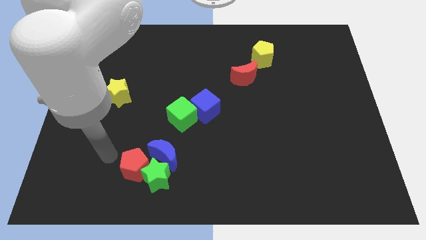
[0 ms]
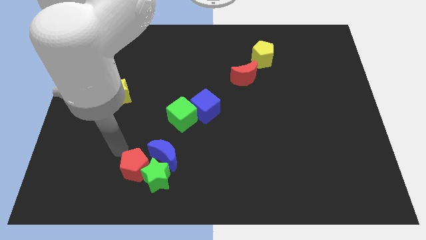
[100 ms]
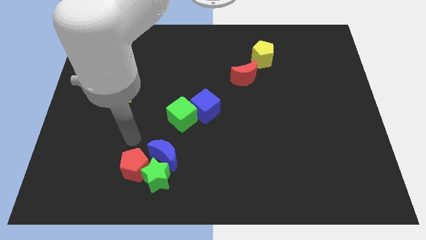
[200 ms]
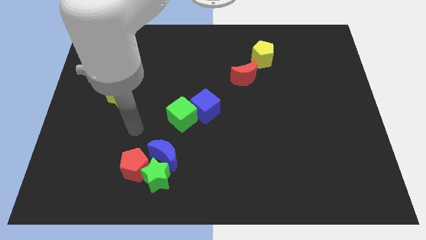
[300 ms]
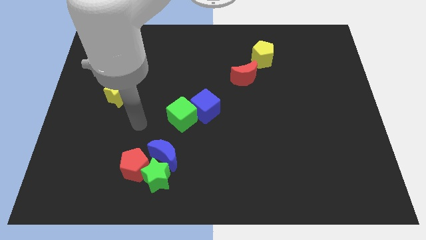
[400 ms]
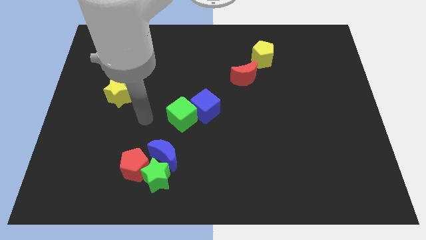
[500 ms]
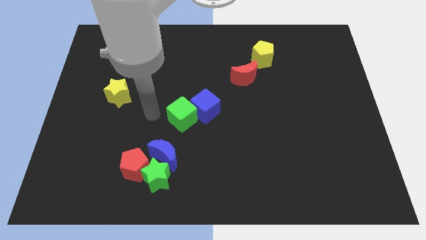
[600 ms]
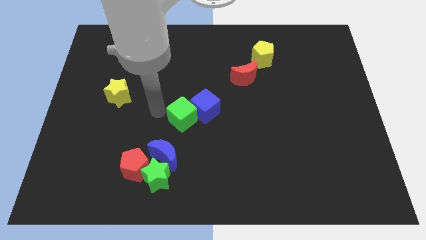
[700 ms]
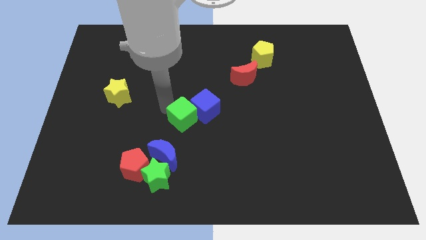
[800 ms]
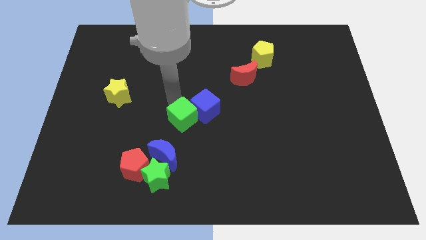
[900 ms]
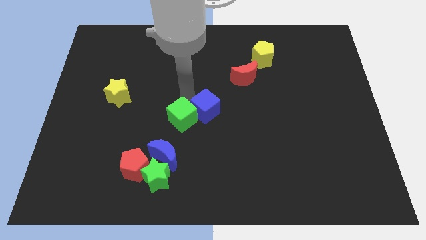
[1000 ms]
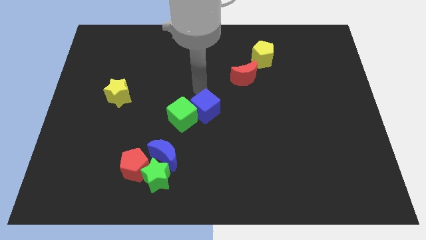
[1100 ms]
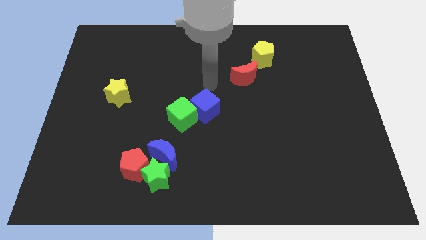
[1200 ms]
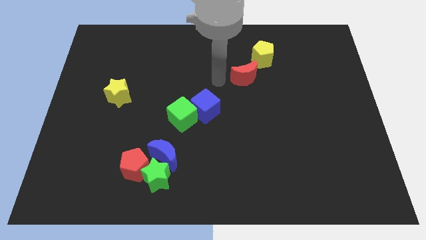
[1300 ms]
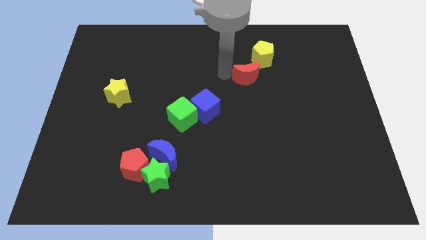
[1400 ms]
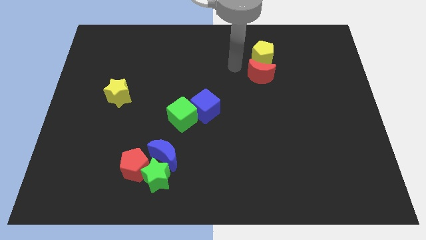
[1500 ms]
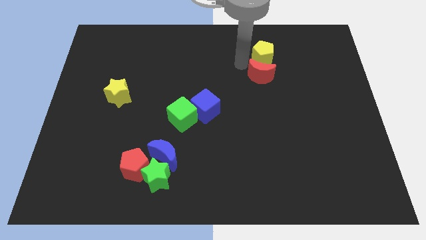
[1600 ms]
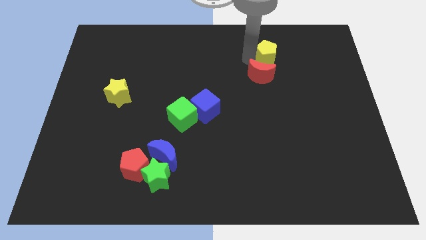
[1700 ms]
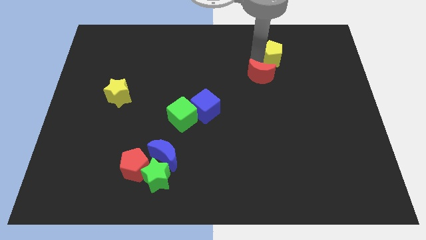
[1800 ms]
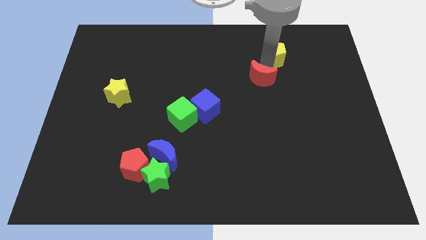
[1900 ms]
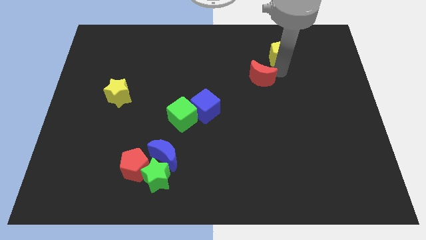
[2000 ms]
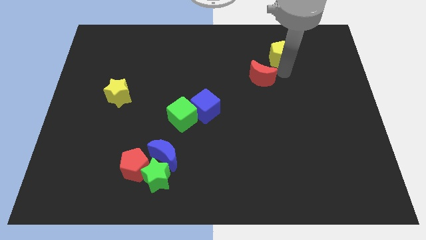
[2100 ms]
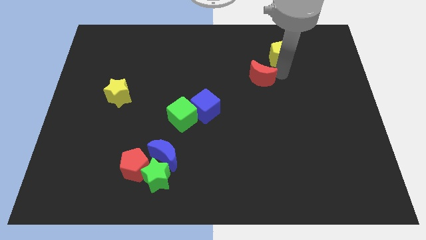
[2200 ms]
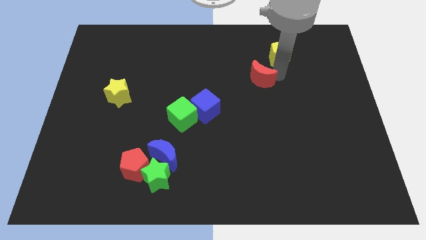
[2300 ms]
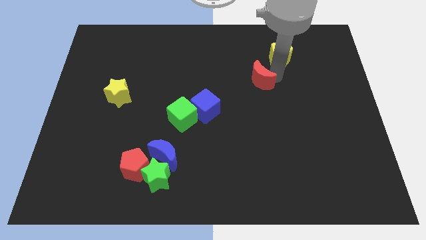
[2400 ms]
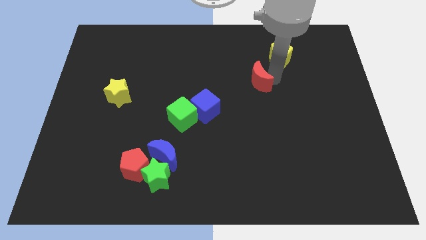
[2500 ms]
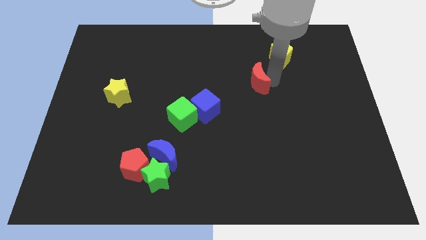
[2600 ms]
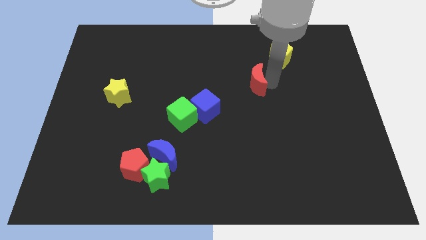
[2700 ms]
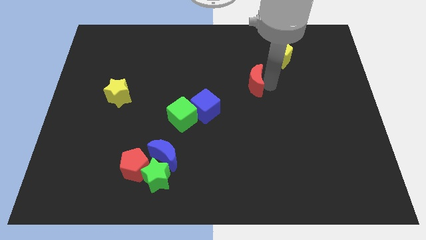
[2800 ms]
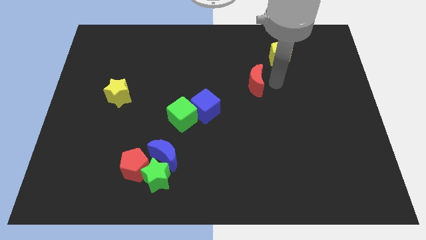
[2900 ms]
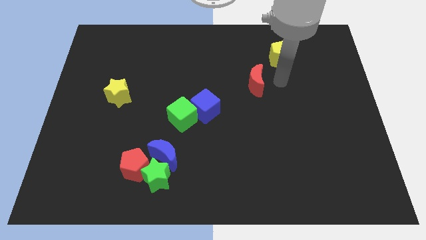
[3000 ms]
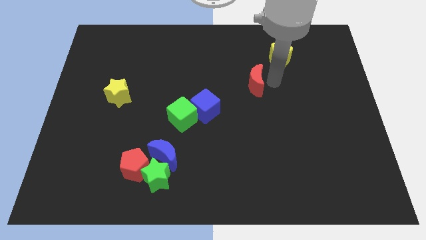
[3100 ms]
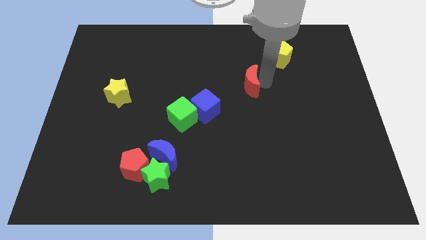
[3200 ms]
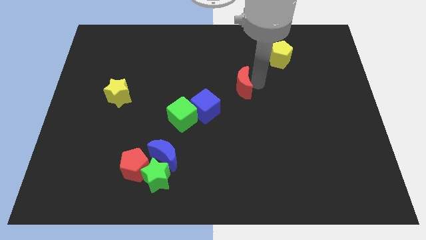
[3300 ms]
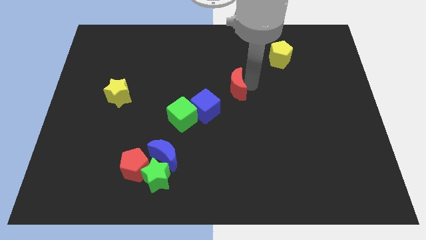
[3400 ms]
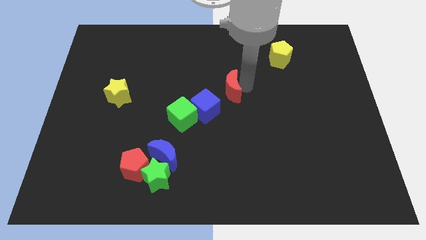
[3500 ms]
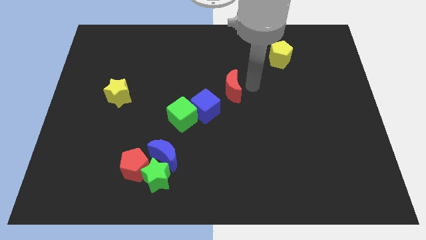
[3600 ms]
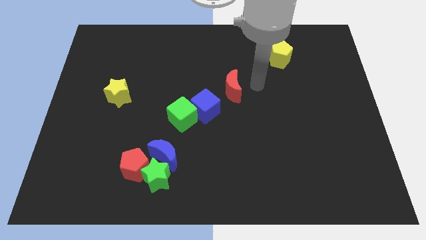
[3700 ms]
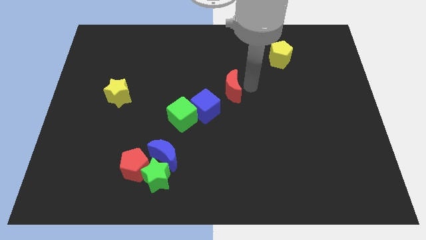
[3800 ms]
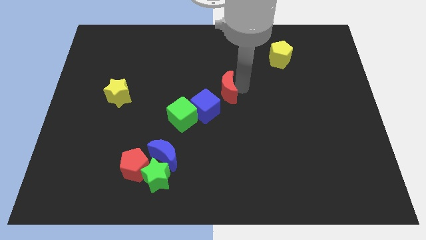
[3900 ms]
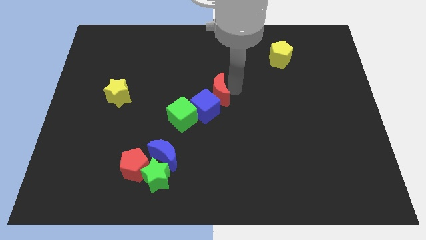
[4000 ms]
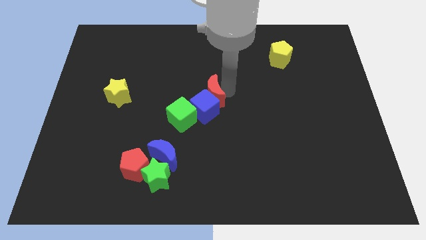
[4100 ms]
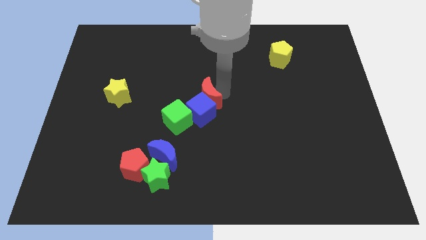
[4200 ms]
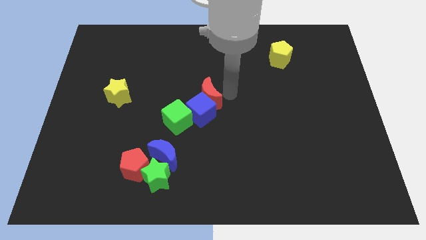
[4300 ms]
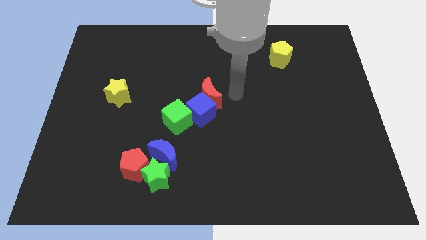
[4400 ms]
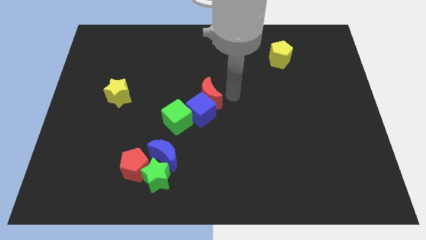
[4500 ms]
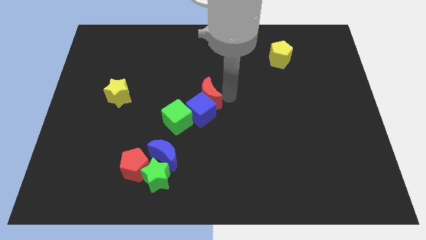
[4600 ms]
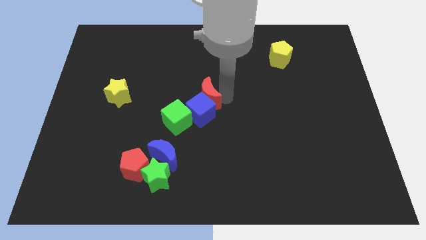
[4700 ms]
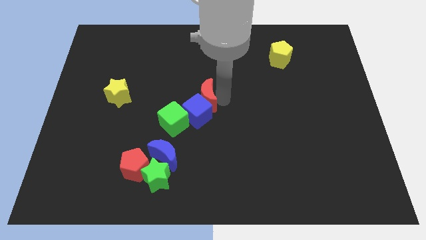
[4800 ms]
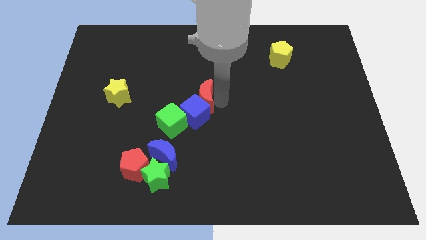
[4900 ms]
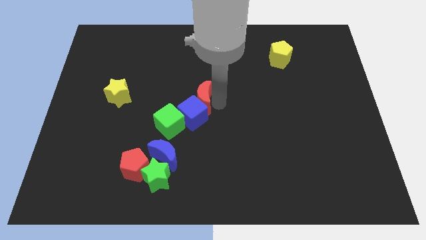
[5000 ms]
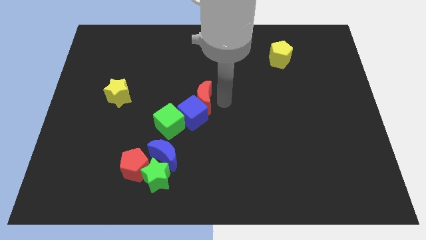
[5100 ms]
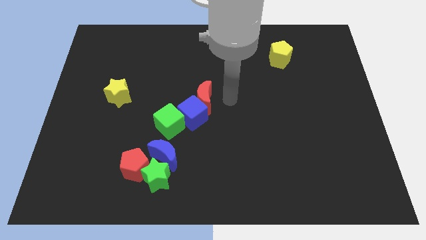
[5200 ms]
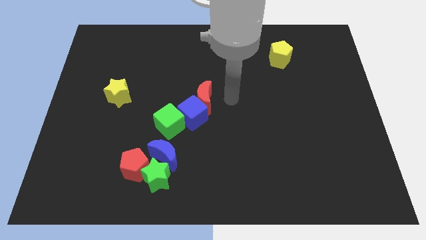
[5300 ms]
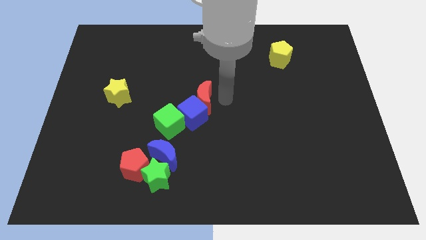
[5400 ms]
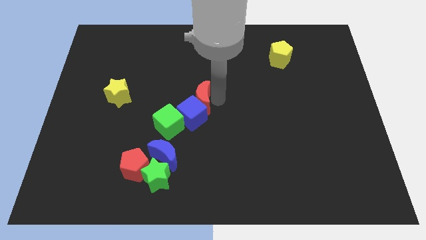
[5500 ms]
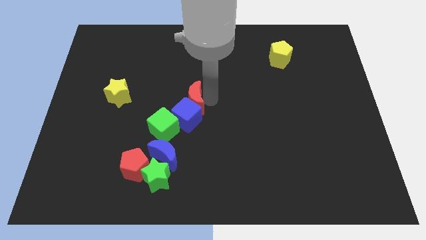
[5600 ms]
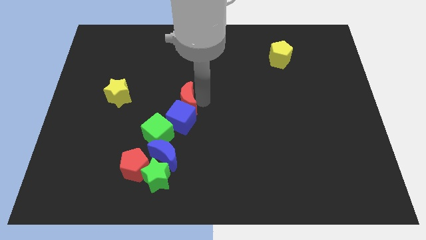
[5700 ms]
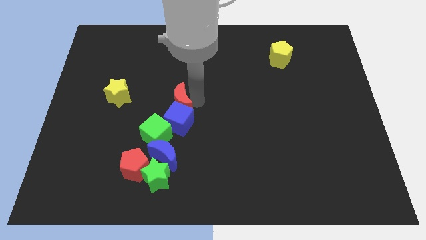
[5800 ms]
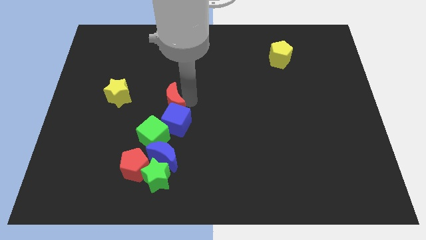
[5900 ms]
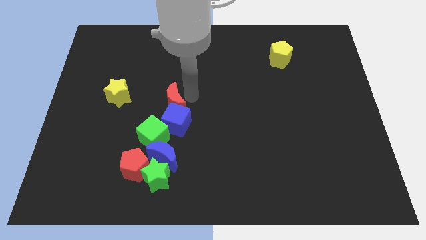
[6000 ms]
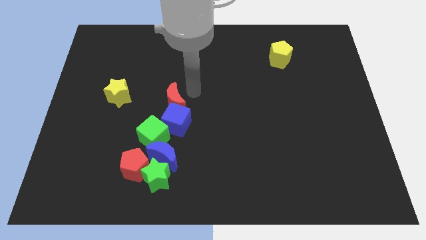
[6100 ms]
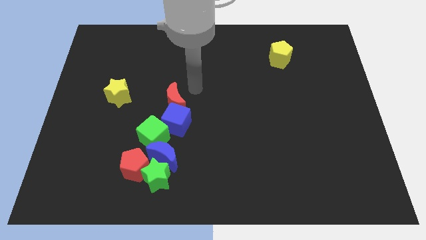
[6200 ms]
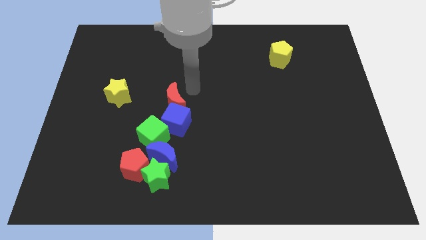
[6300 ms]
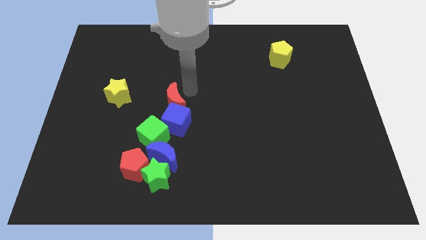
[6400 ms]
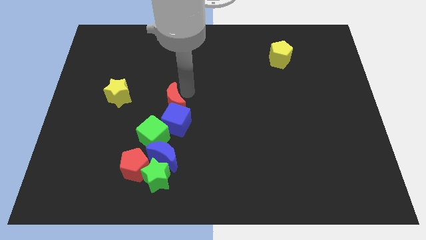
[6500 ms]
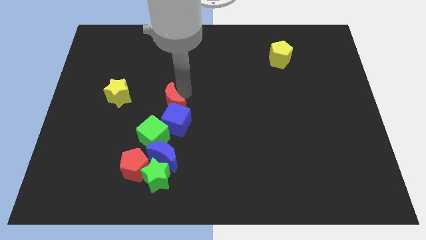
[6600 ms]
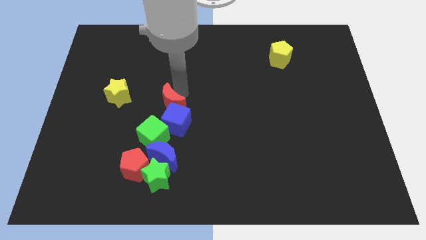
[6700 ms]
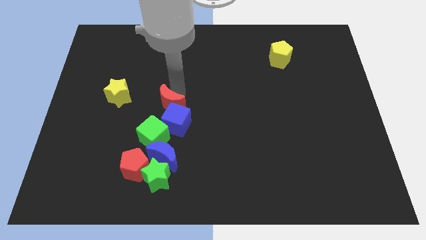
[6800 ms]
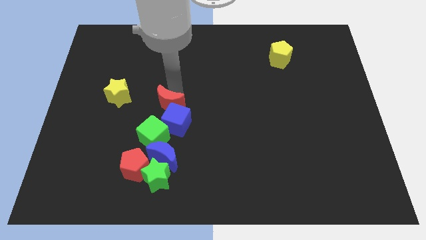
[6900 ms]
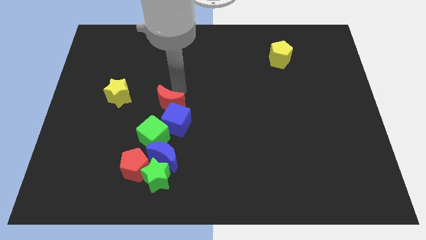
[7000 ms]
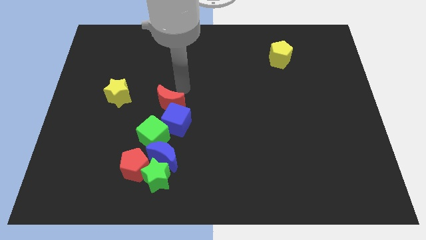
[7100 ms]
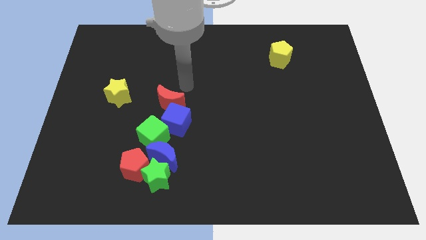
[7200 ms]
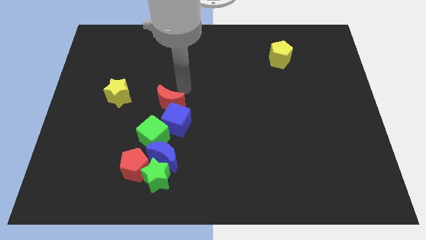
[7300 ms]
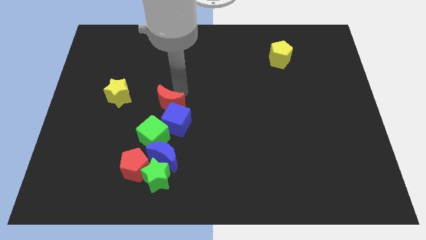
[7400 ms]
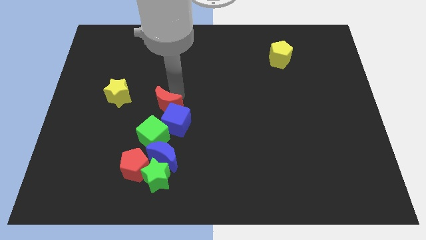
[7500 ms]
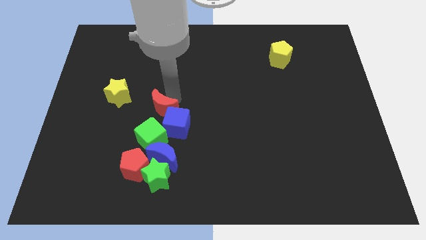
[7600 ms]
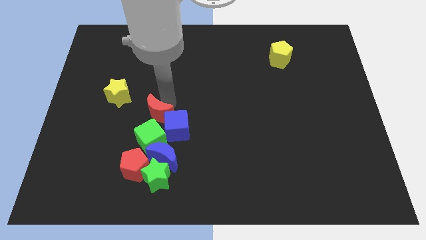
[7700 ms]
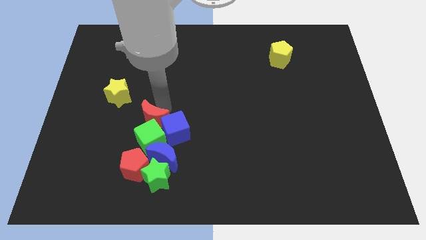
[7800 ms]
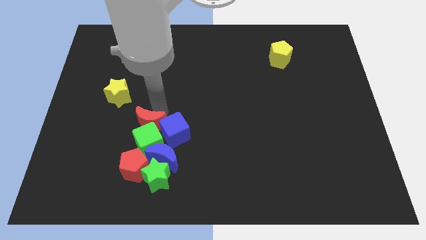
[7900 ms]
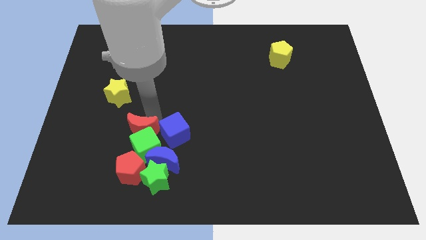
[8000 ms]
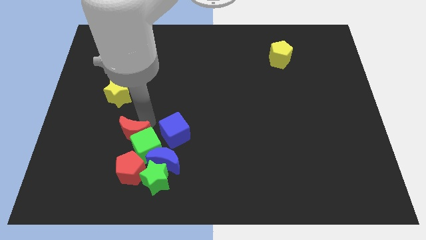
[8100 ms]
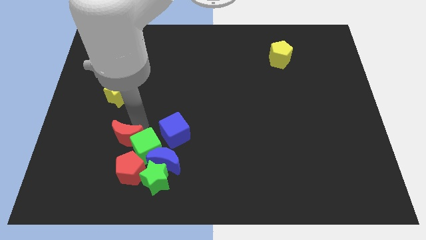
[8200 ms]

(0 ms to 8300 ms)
put the red moon diagonally up and to the left of the green star
